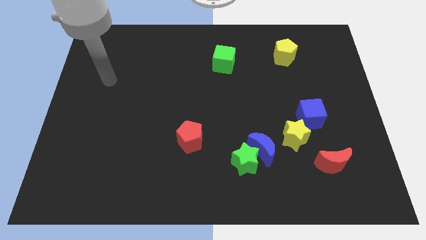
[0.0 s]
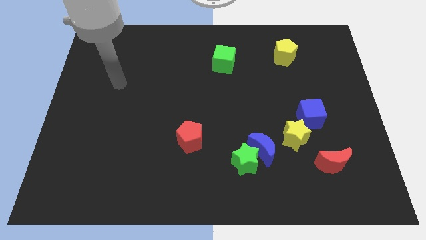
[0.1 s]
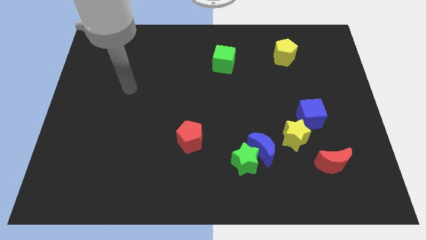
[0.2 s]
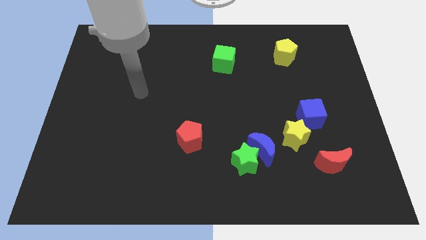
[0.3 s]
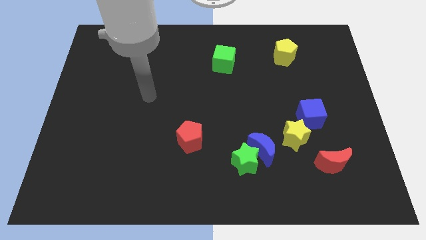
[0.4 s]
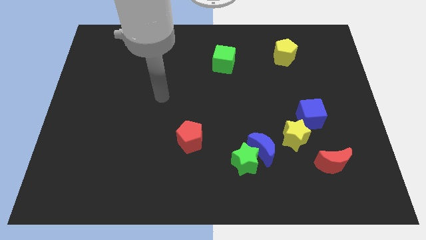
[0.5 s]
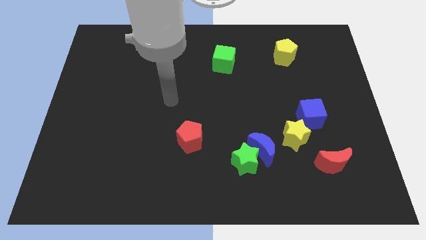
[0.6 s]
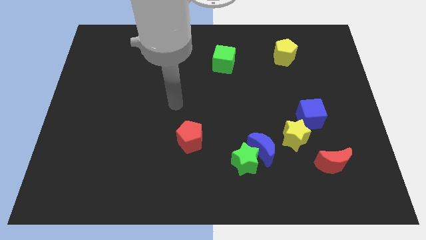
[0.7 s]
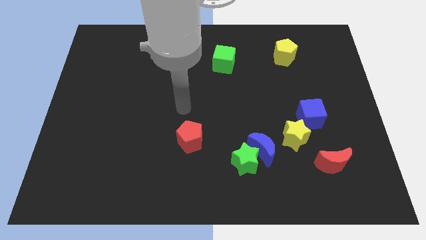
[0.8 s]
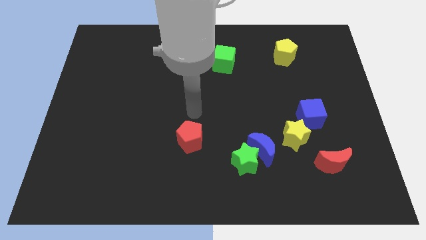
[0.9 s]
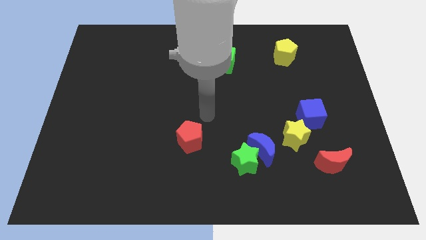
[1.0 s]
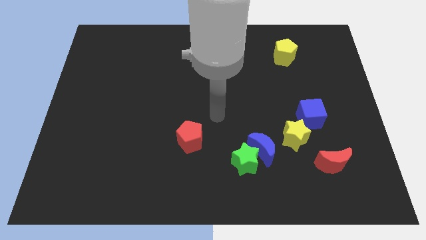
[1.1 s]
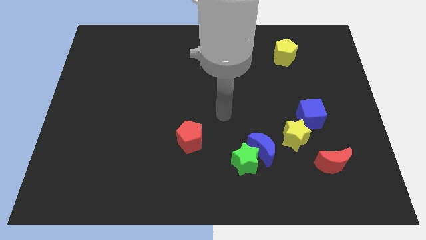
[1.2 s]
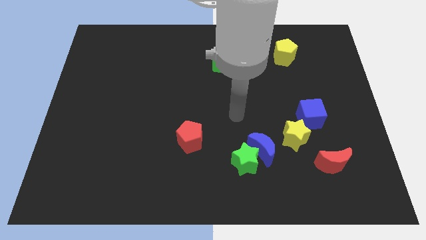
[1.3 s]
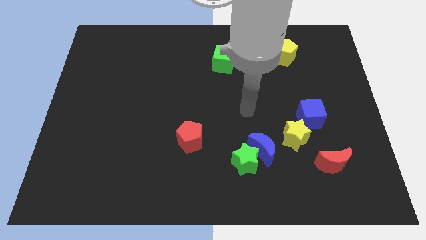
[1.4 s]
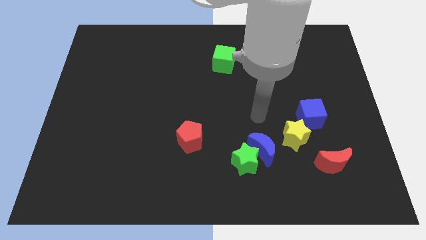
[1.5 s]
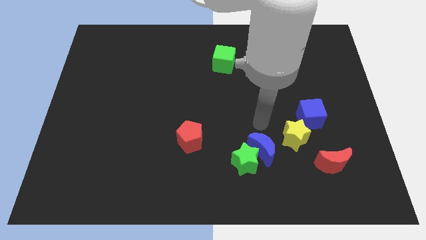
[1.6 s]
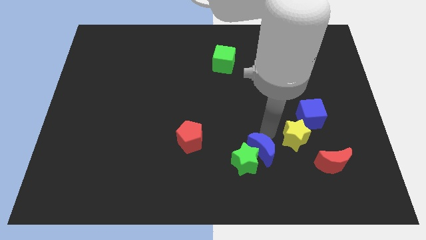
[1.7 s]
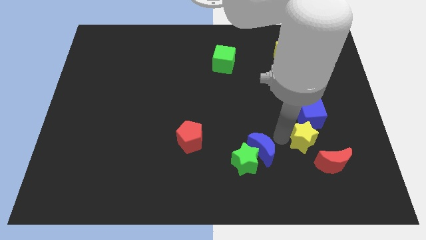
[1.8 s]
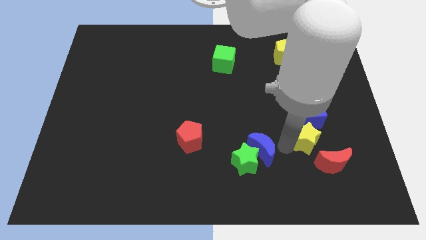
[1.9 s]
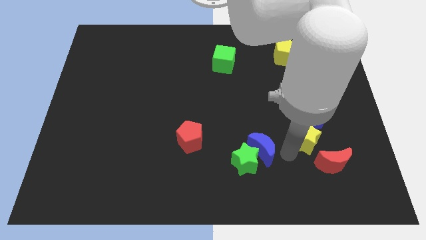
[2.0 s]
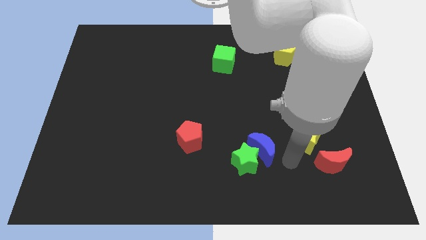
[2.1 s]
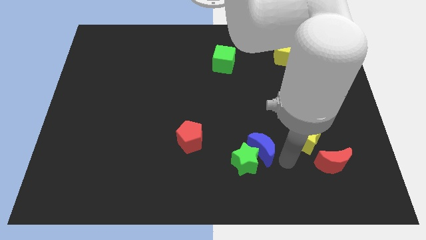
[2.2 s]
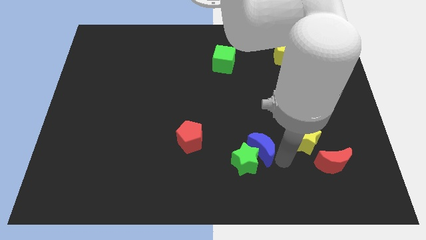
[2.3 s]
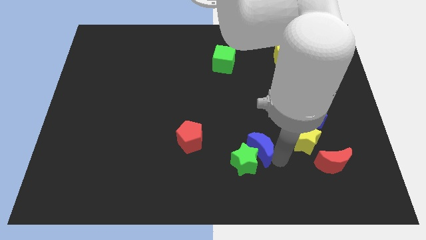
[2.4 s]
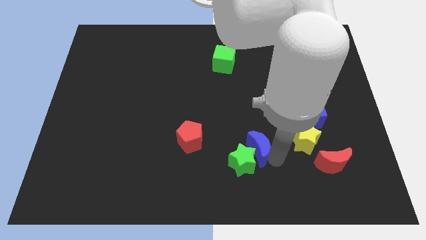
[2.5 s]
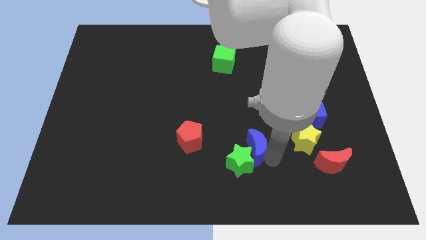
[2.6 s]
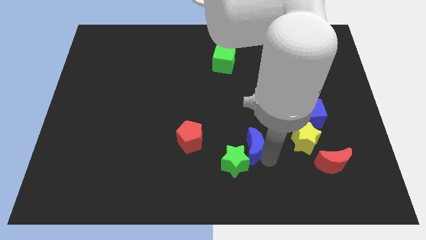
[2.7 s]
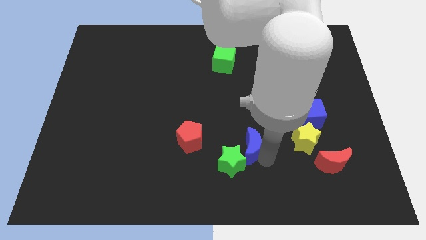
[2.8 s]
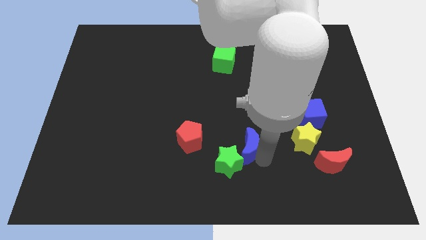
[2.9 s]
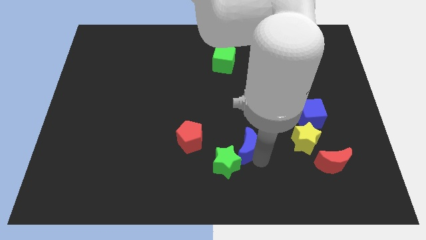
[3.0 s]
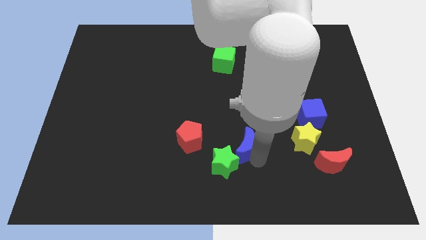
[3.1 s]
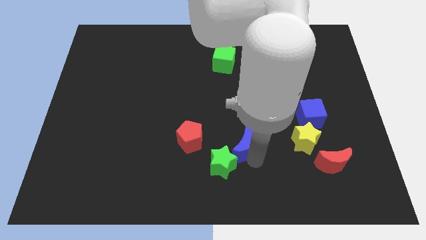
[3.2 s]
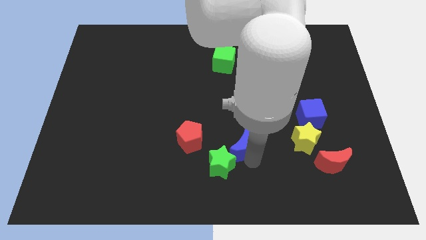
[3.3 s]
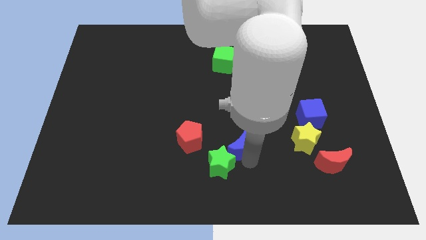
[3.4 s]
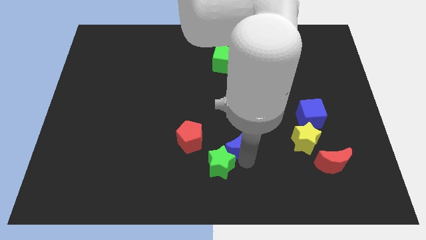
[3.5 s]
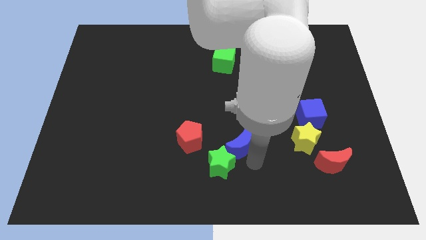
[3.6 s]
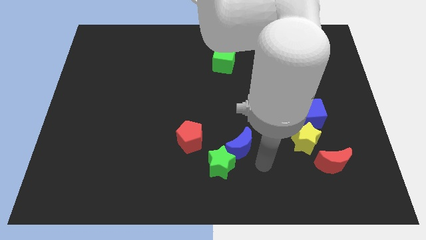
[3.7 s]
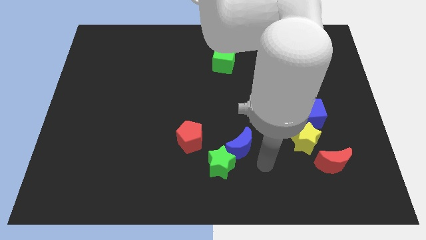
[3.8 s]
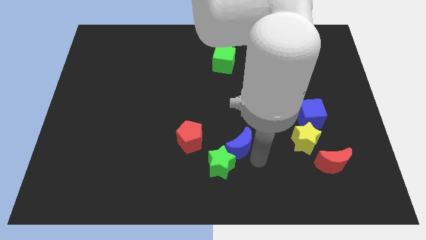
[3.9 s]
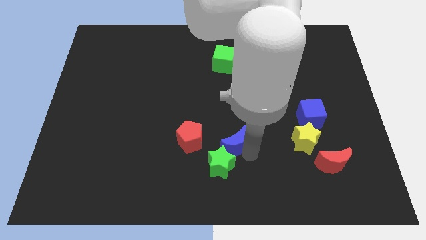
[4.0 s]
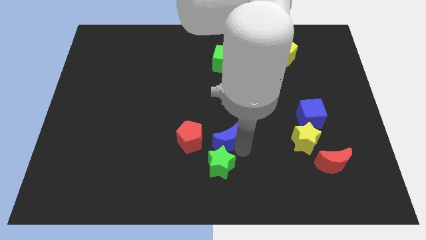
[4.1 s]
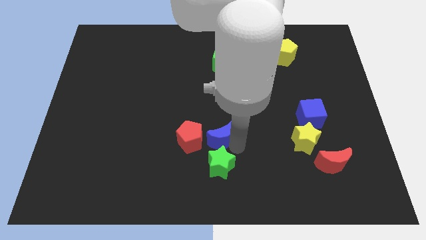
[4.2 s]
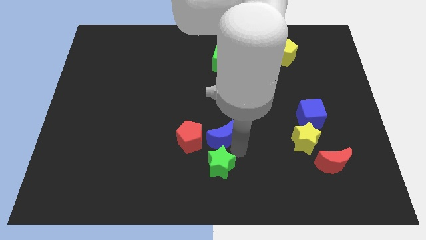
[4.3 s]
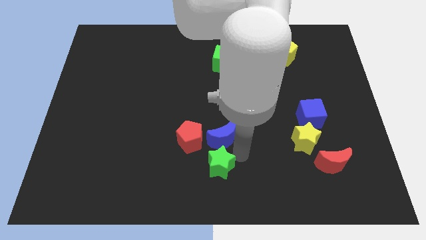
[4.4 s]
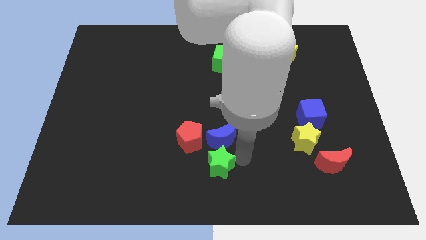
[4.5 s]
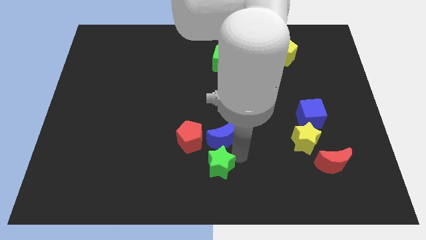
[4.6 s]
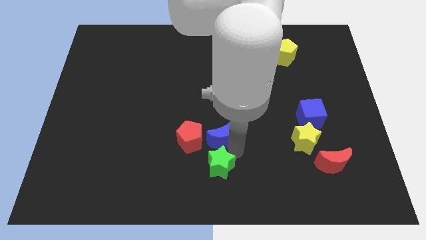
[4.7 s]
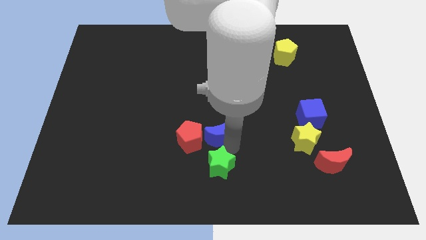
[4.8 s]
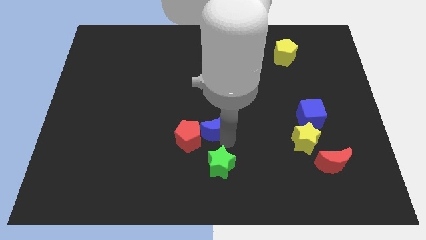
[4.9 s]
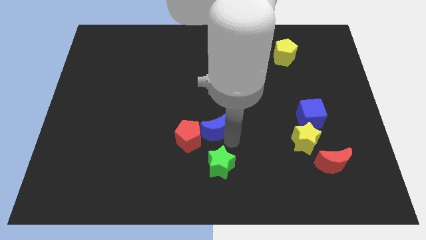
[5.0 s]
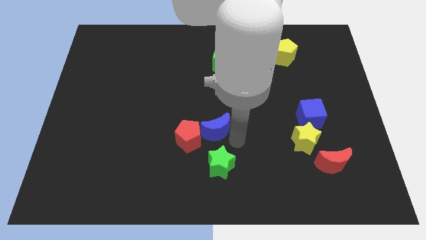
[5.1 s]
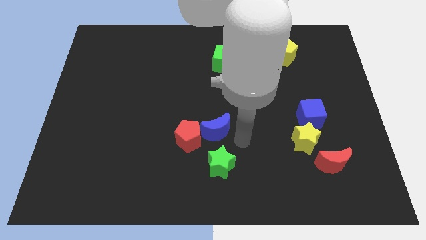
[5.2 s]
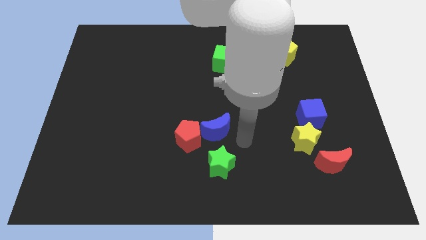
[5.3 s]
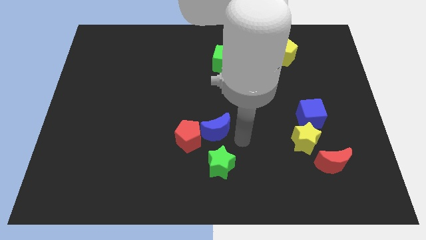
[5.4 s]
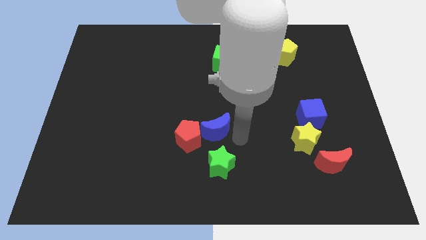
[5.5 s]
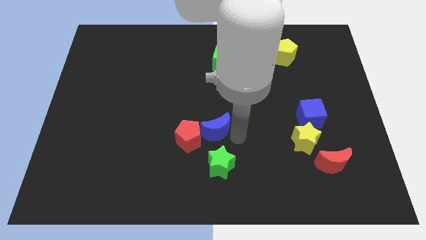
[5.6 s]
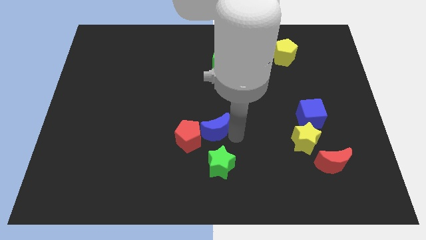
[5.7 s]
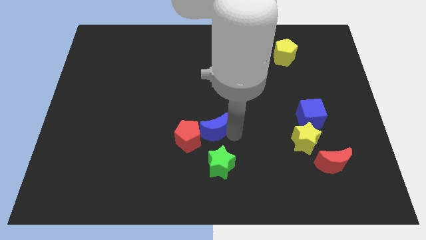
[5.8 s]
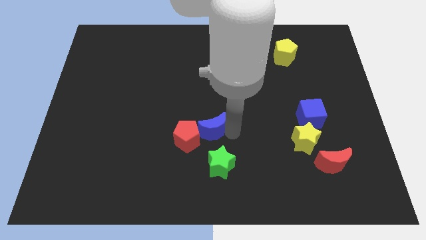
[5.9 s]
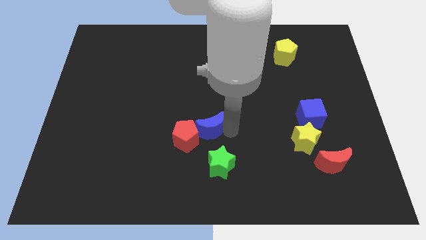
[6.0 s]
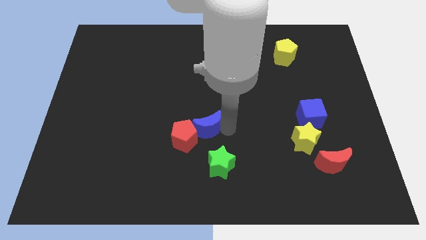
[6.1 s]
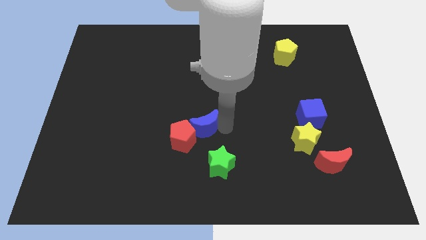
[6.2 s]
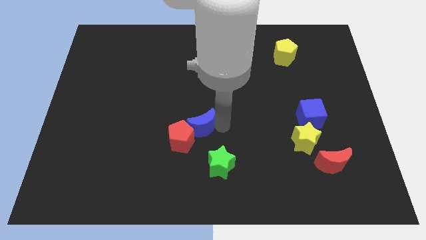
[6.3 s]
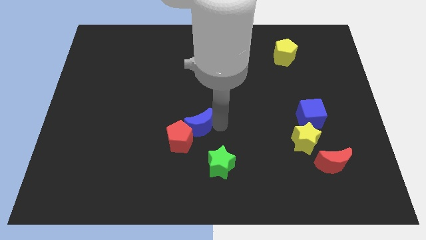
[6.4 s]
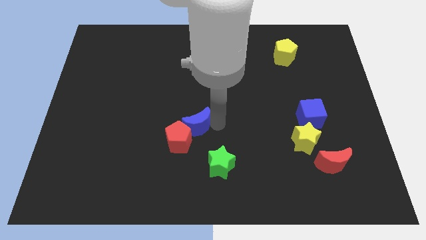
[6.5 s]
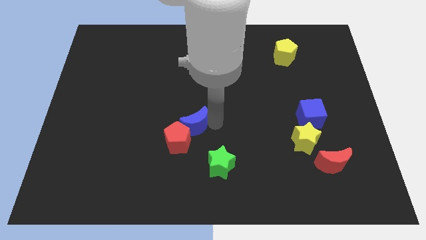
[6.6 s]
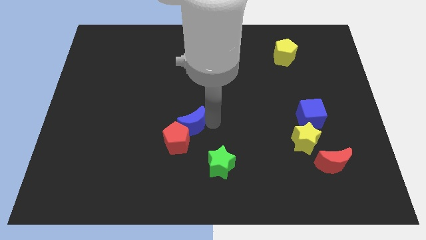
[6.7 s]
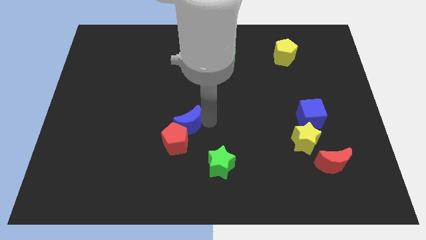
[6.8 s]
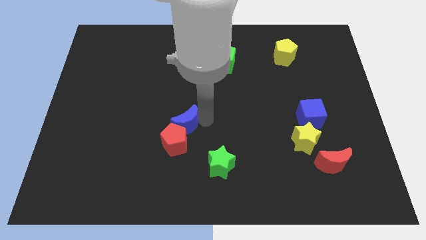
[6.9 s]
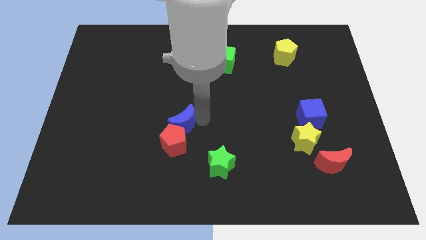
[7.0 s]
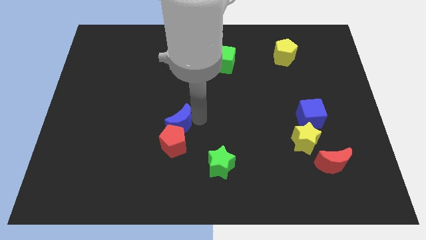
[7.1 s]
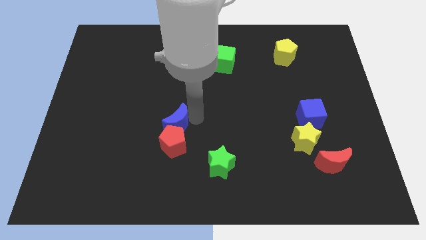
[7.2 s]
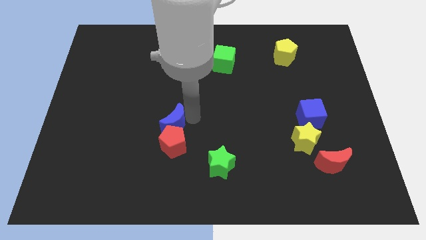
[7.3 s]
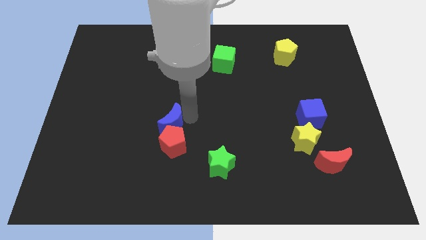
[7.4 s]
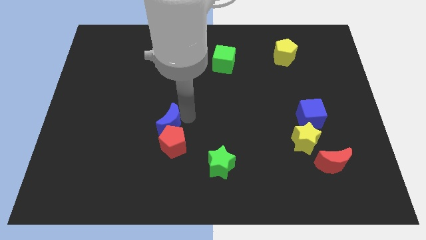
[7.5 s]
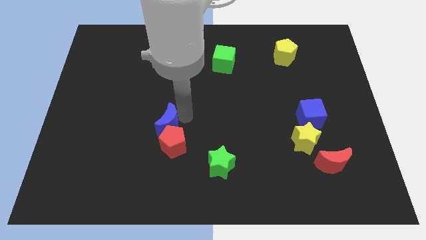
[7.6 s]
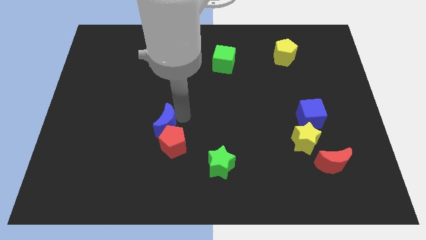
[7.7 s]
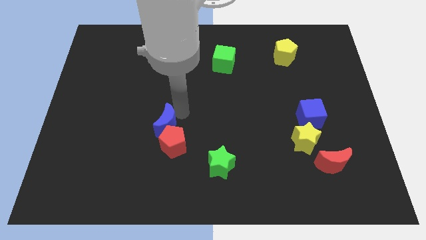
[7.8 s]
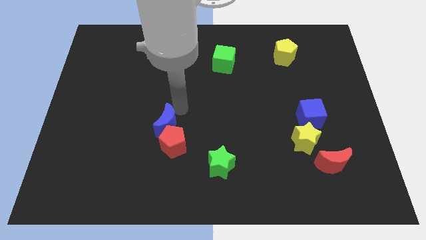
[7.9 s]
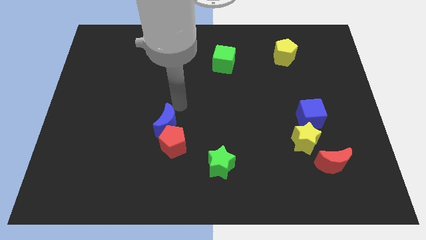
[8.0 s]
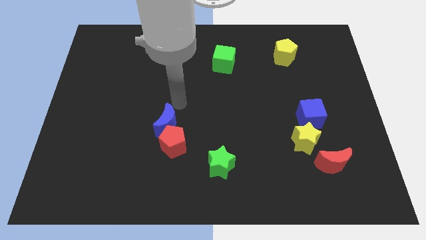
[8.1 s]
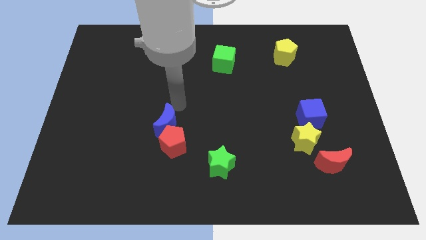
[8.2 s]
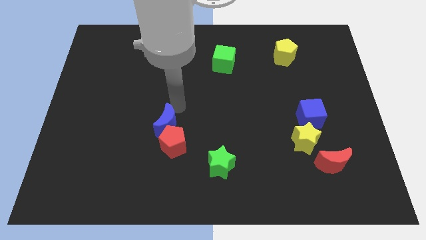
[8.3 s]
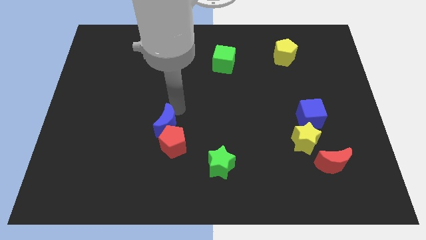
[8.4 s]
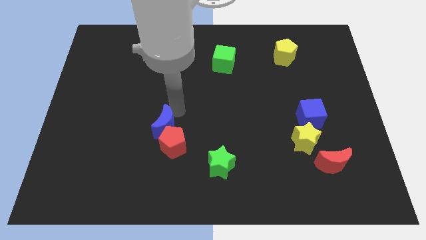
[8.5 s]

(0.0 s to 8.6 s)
slide the blue moon left
